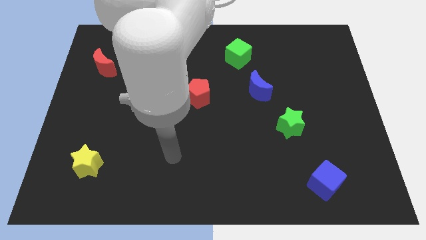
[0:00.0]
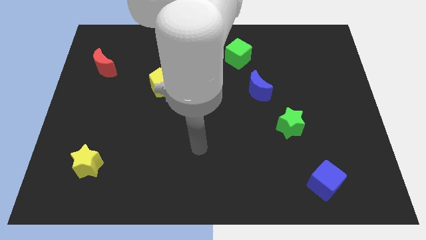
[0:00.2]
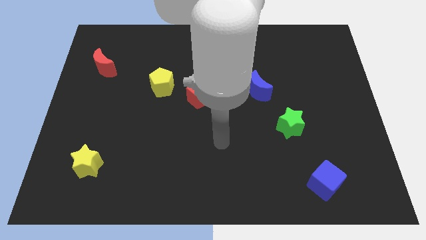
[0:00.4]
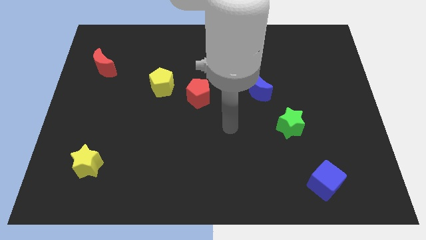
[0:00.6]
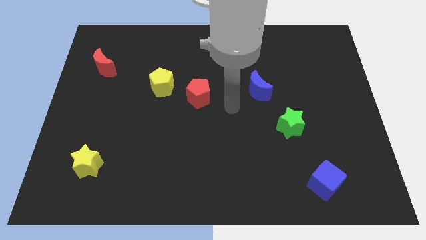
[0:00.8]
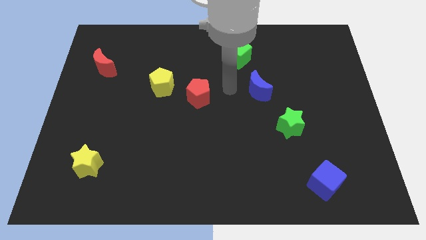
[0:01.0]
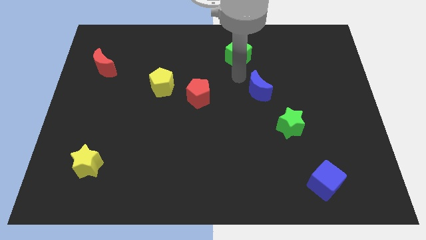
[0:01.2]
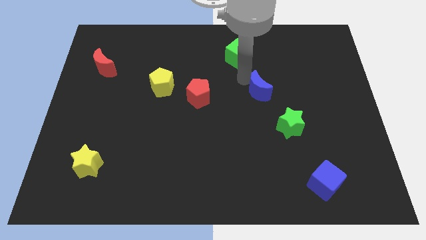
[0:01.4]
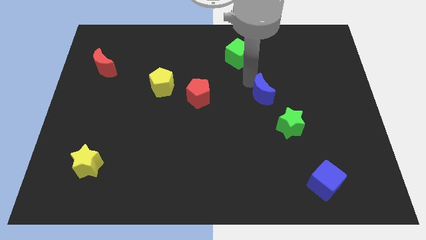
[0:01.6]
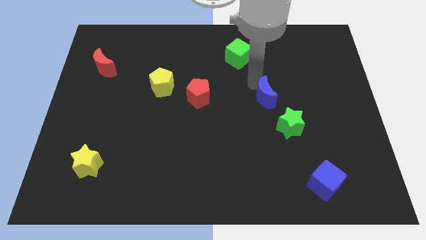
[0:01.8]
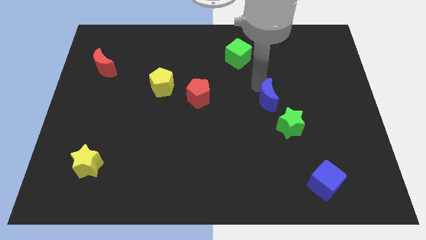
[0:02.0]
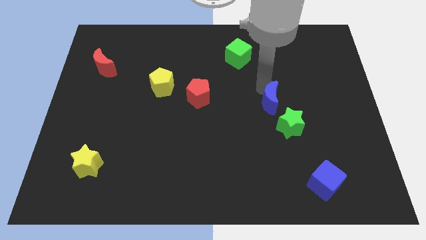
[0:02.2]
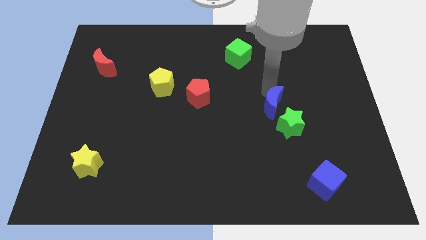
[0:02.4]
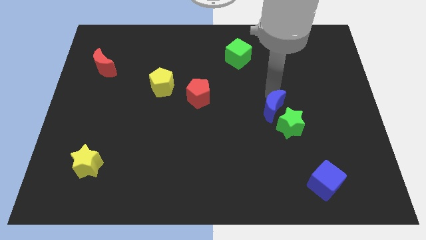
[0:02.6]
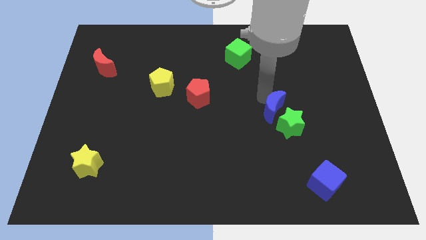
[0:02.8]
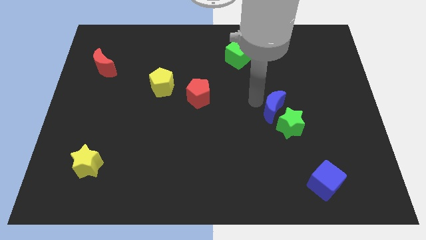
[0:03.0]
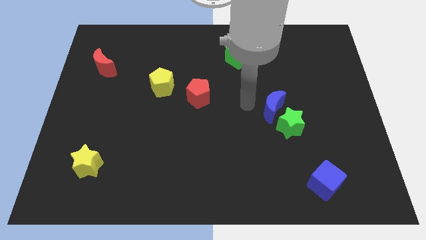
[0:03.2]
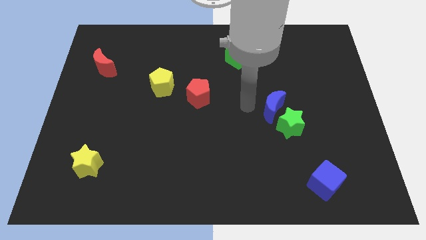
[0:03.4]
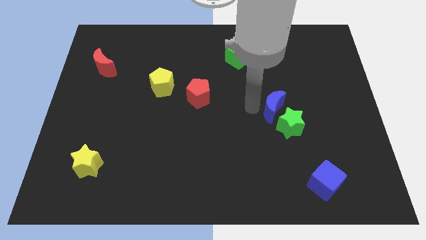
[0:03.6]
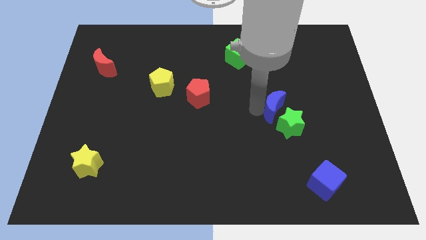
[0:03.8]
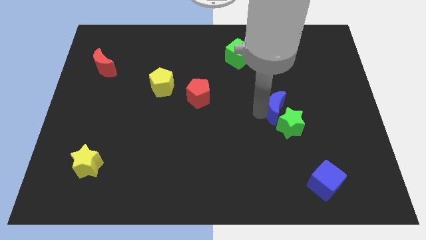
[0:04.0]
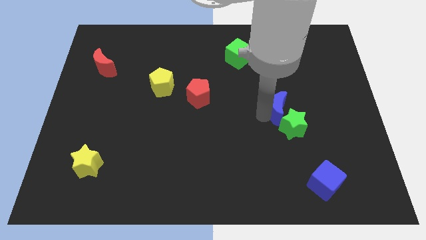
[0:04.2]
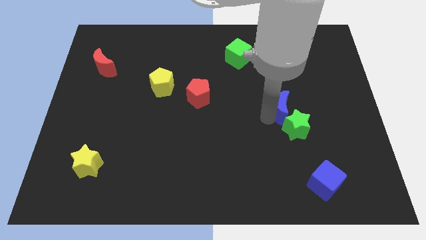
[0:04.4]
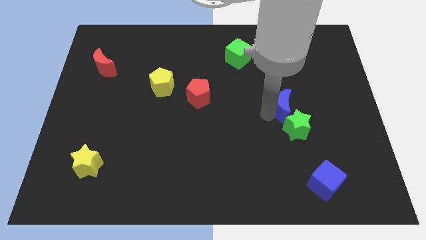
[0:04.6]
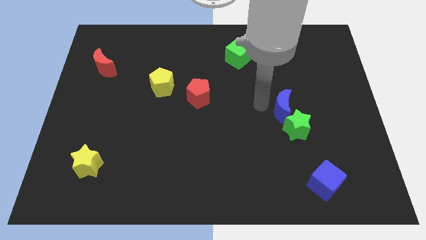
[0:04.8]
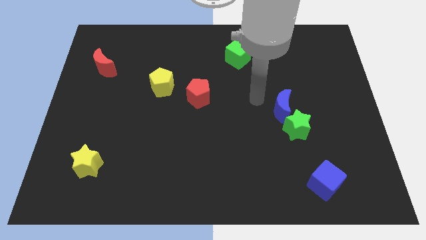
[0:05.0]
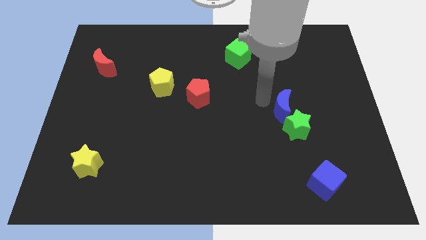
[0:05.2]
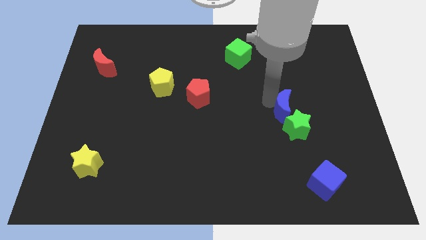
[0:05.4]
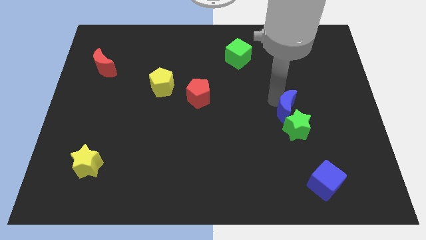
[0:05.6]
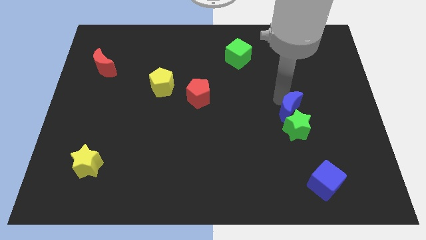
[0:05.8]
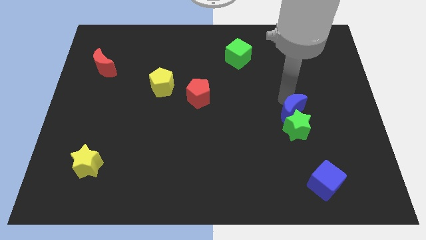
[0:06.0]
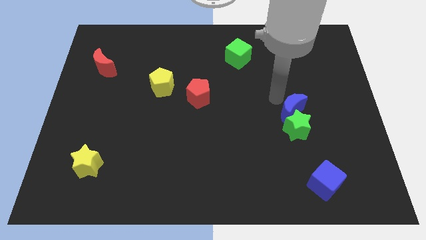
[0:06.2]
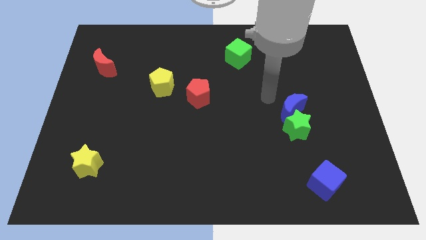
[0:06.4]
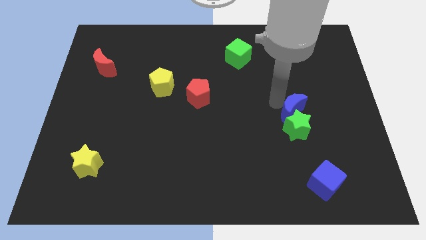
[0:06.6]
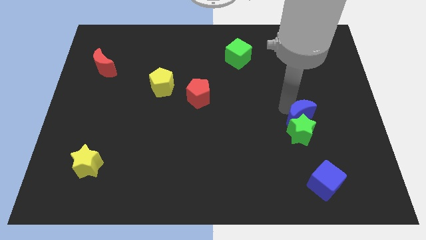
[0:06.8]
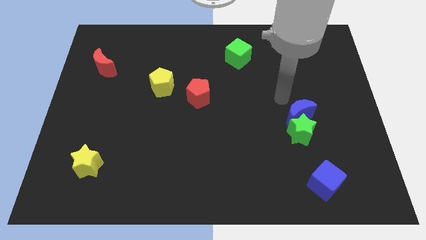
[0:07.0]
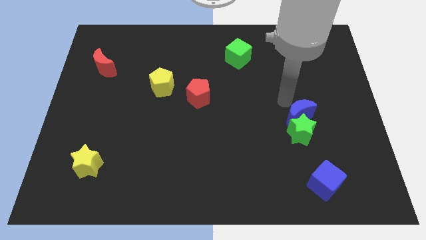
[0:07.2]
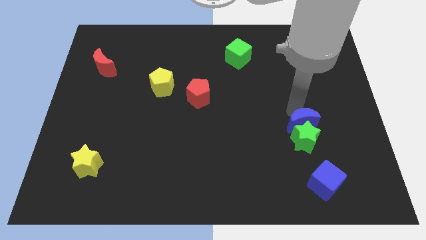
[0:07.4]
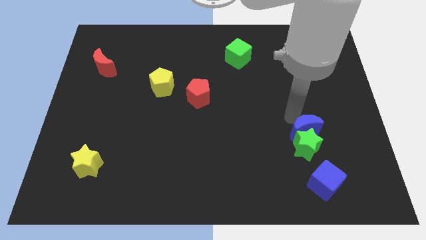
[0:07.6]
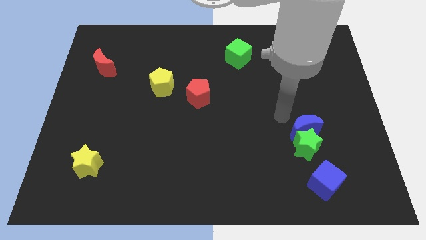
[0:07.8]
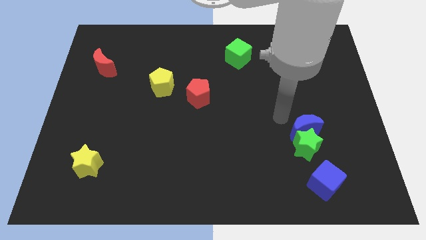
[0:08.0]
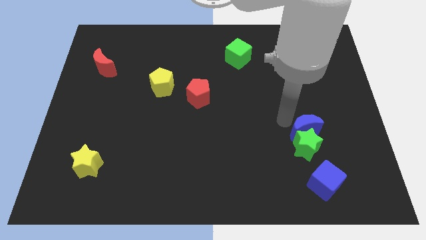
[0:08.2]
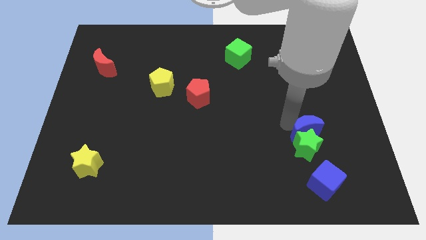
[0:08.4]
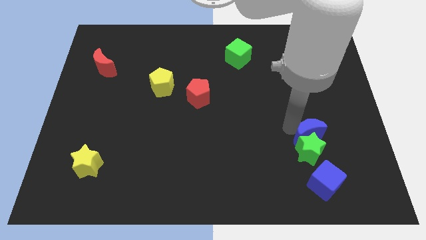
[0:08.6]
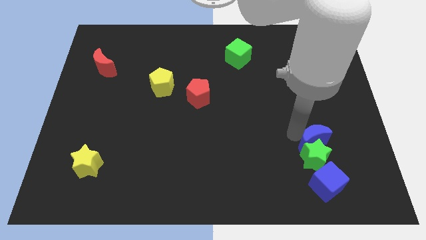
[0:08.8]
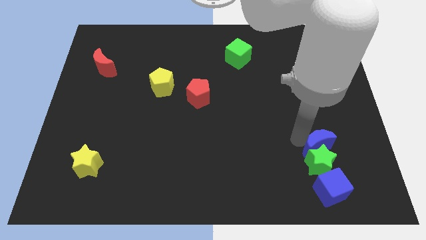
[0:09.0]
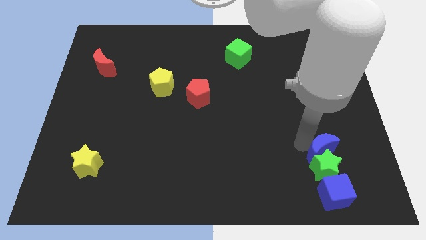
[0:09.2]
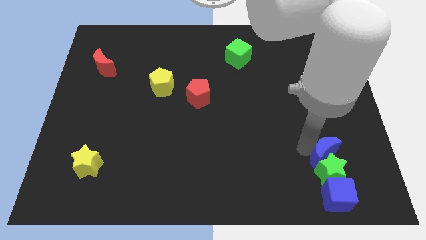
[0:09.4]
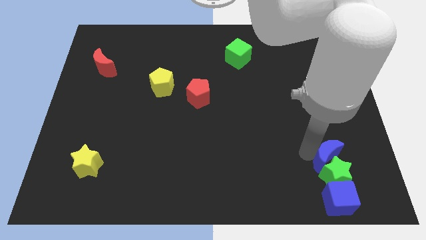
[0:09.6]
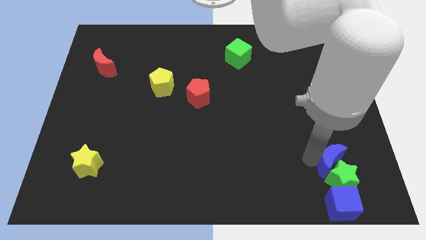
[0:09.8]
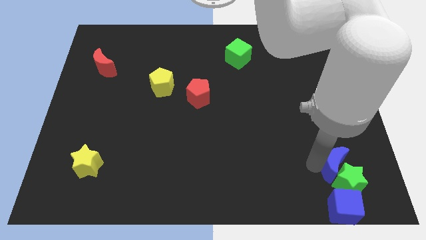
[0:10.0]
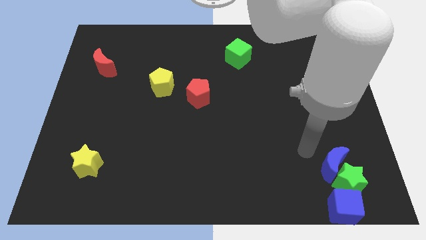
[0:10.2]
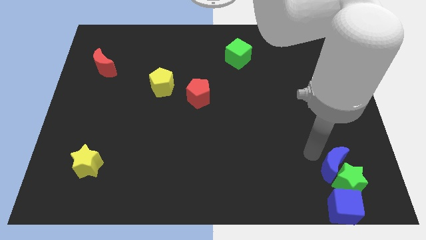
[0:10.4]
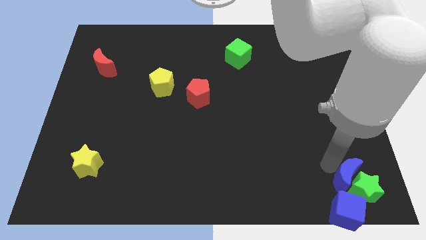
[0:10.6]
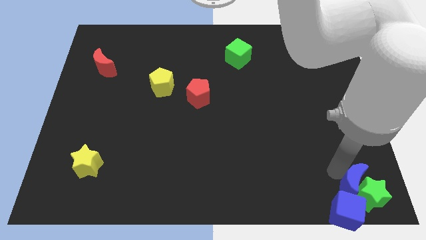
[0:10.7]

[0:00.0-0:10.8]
put the blue moon to the bottom right corner

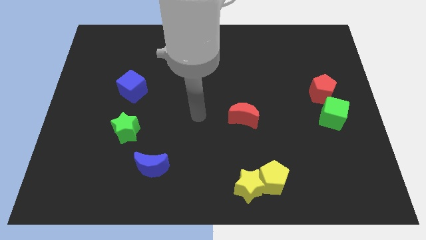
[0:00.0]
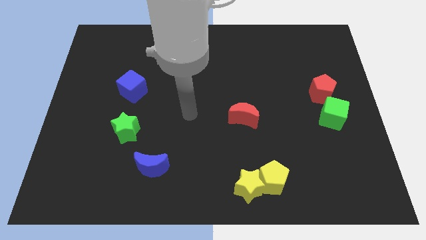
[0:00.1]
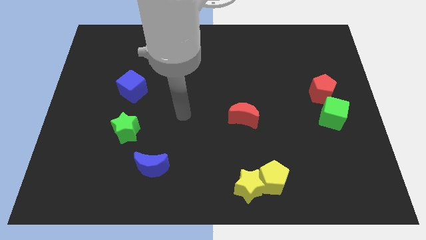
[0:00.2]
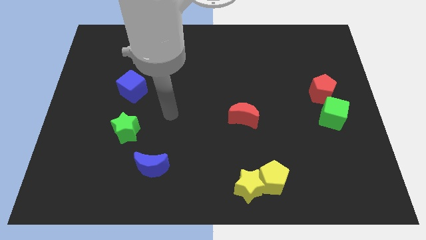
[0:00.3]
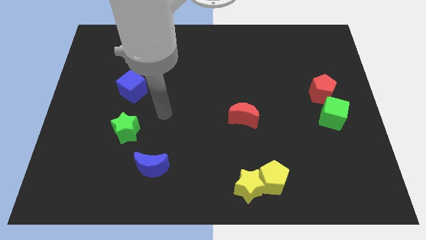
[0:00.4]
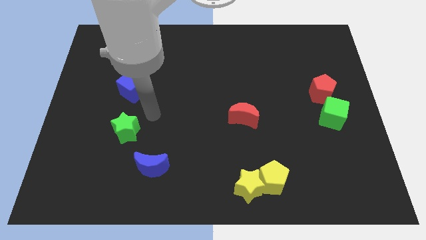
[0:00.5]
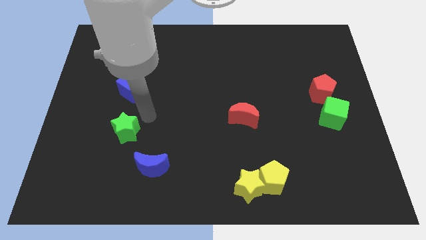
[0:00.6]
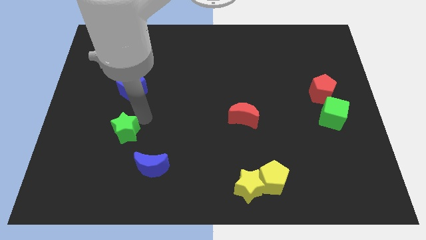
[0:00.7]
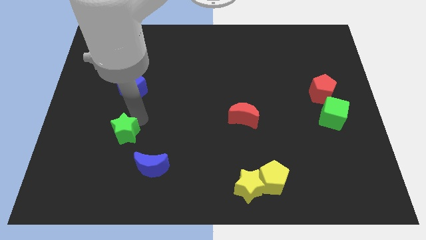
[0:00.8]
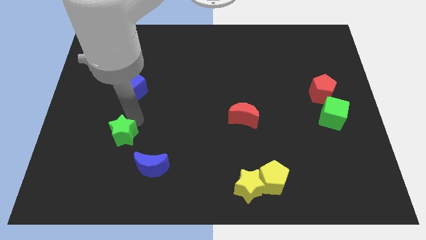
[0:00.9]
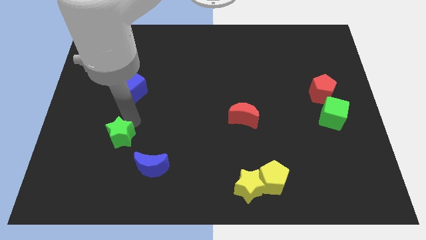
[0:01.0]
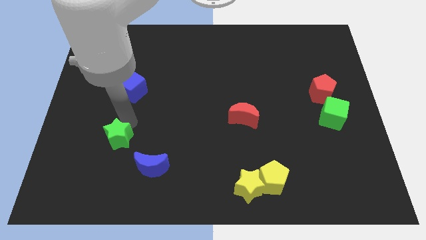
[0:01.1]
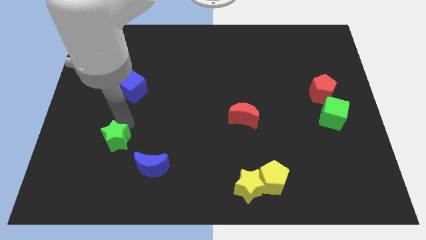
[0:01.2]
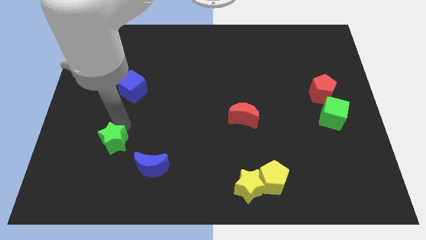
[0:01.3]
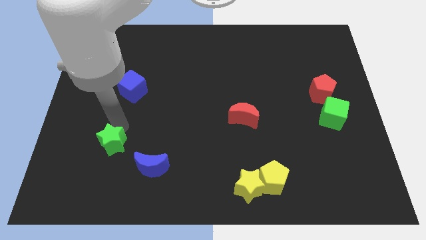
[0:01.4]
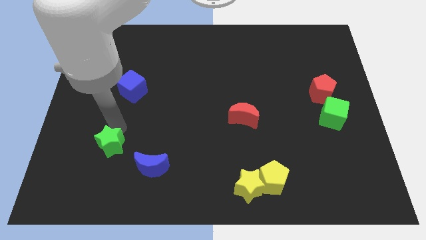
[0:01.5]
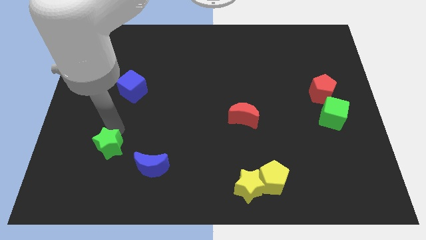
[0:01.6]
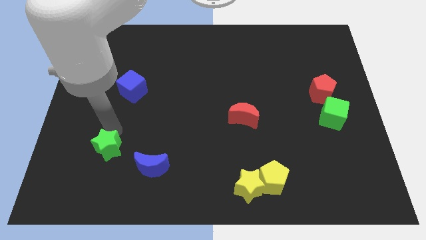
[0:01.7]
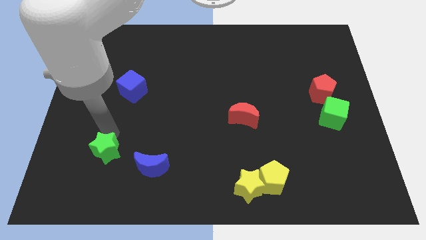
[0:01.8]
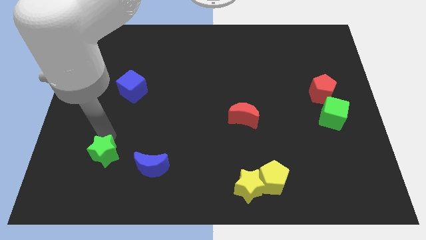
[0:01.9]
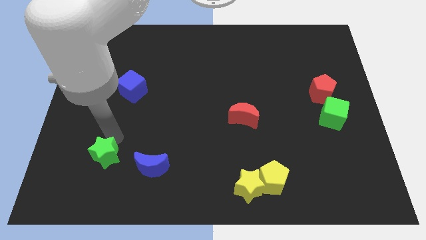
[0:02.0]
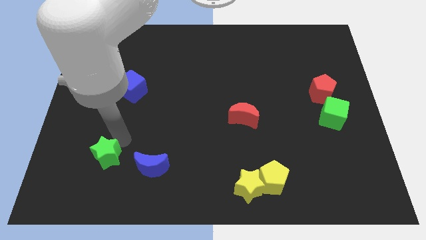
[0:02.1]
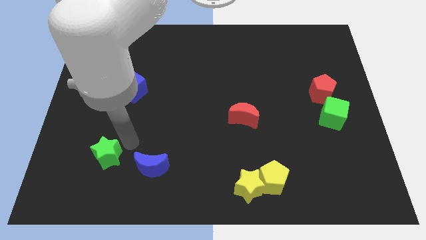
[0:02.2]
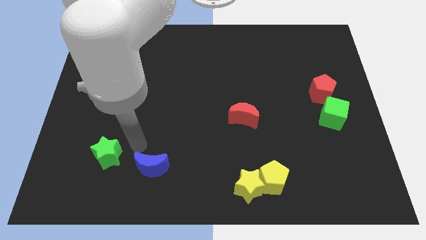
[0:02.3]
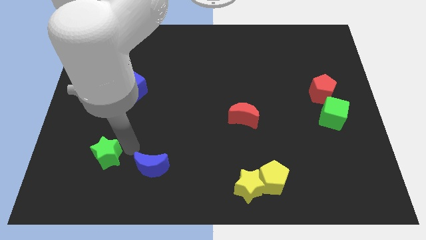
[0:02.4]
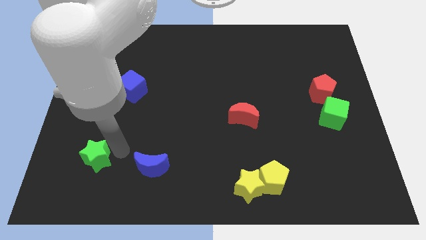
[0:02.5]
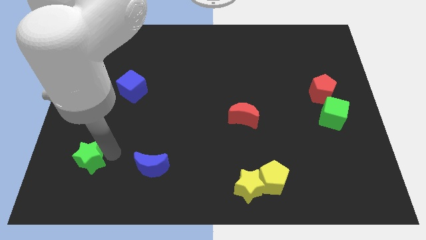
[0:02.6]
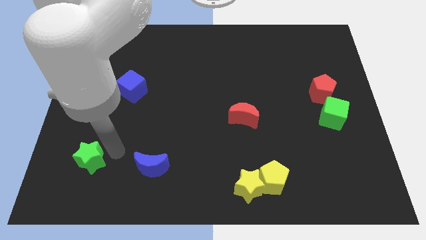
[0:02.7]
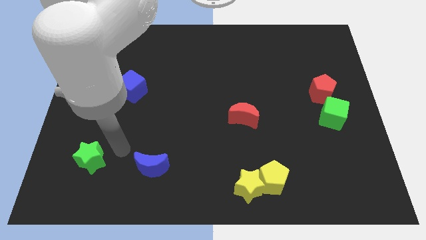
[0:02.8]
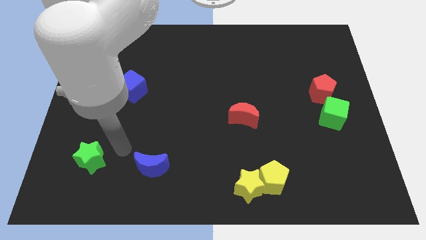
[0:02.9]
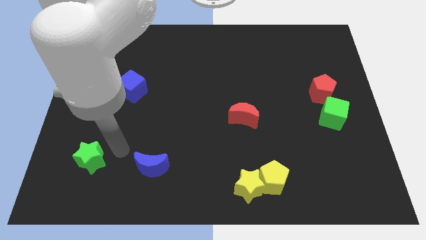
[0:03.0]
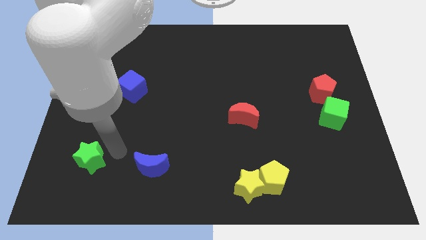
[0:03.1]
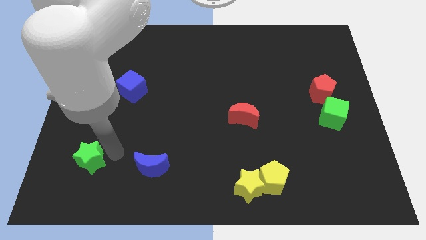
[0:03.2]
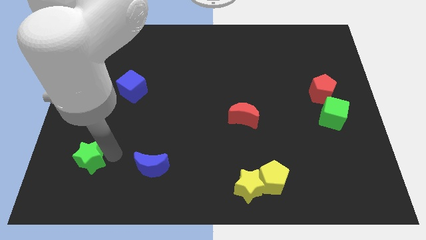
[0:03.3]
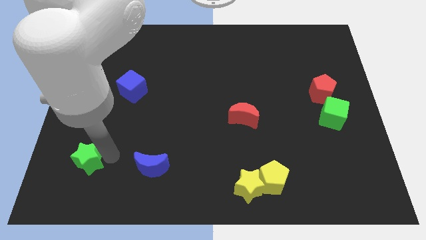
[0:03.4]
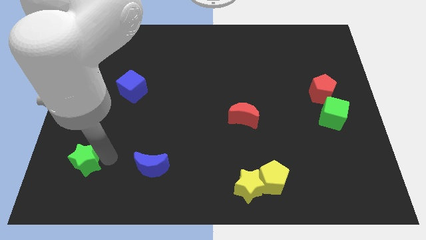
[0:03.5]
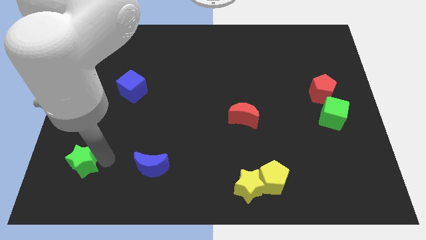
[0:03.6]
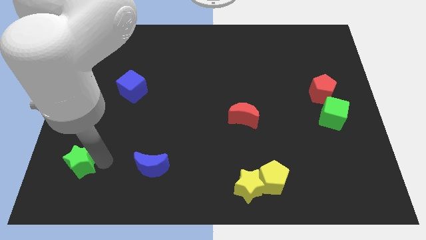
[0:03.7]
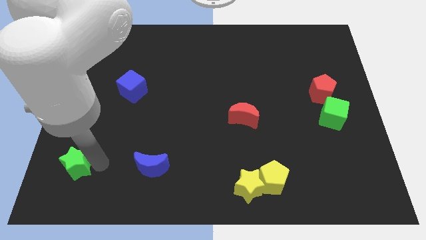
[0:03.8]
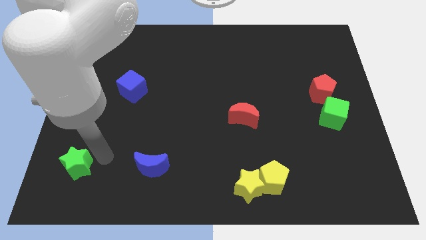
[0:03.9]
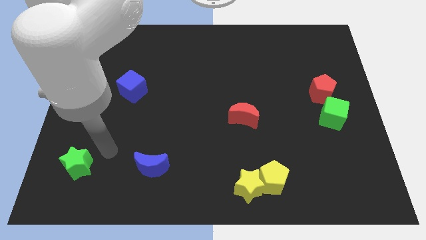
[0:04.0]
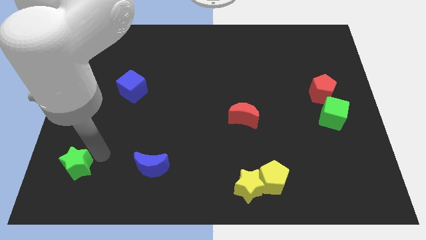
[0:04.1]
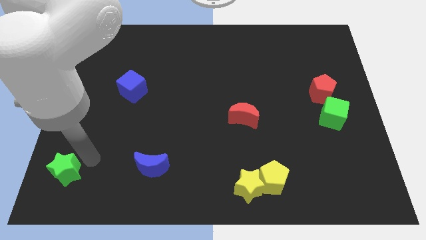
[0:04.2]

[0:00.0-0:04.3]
slide the green star to the bottom left of the board
